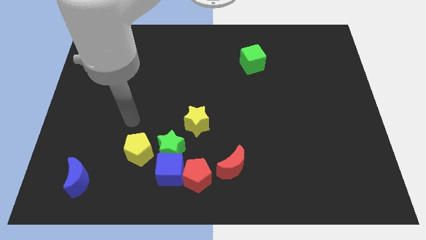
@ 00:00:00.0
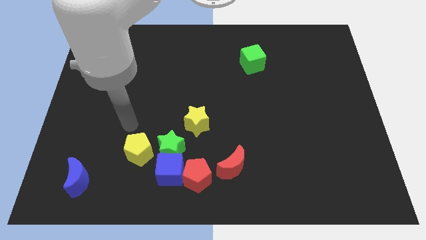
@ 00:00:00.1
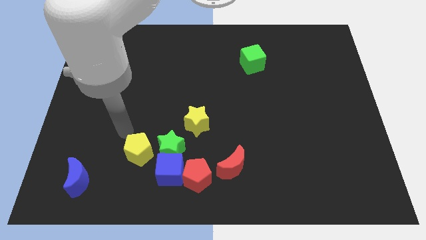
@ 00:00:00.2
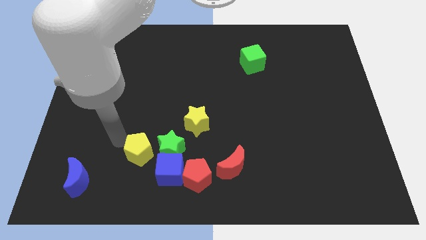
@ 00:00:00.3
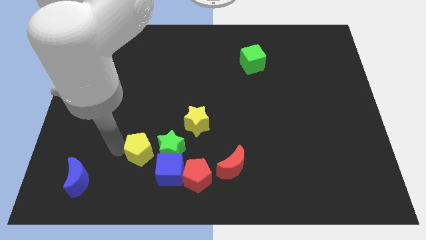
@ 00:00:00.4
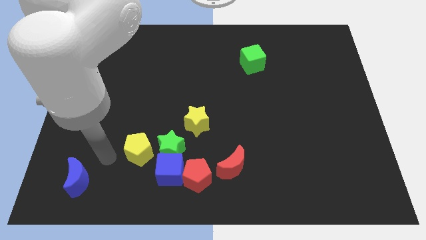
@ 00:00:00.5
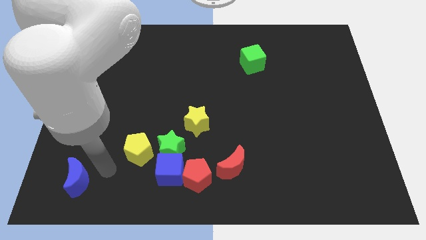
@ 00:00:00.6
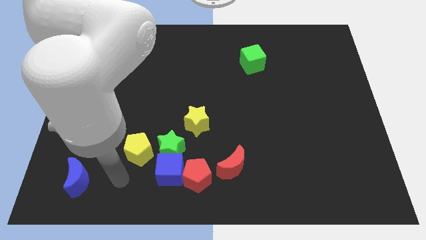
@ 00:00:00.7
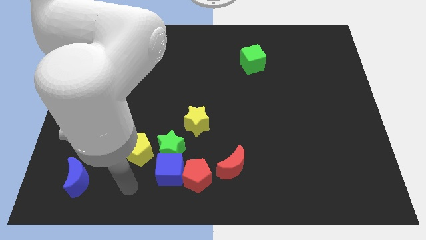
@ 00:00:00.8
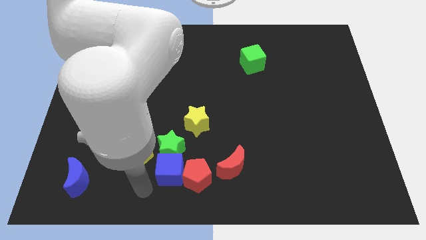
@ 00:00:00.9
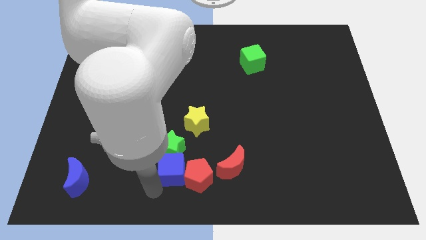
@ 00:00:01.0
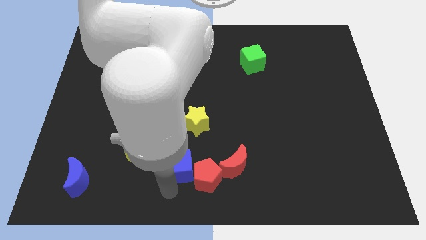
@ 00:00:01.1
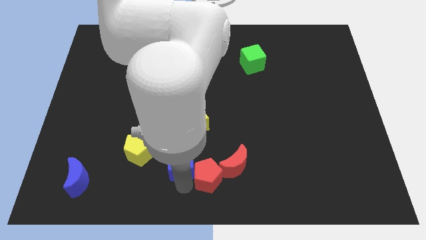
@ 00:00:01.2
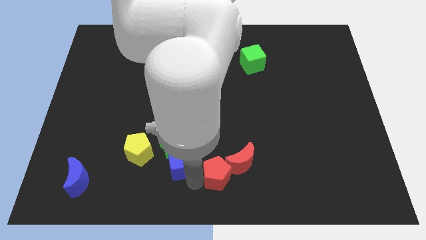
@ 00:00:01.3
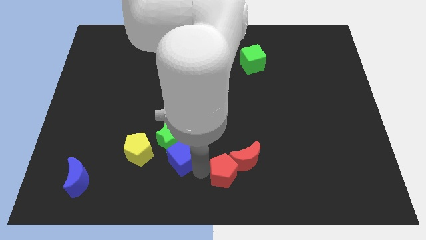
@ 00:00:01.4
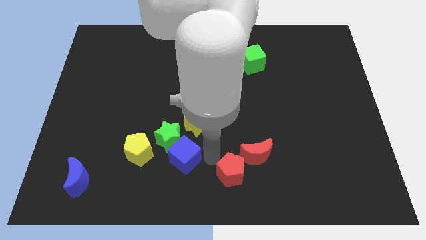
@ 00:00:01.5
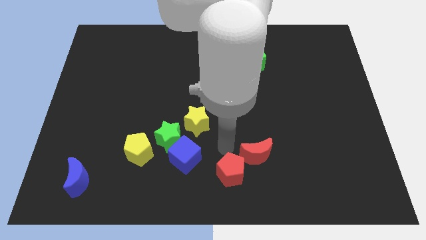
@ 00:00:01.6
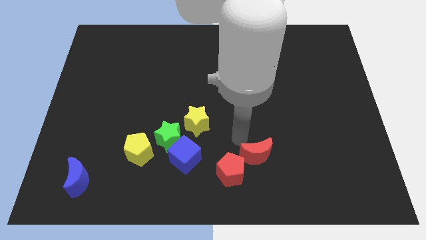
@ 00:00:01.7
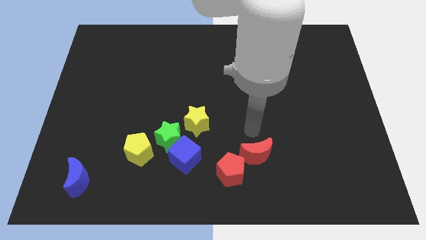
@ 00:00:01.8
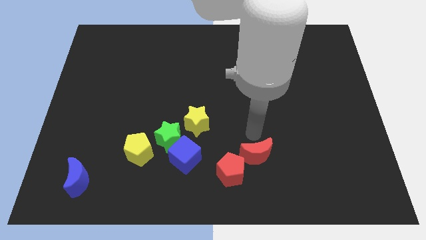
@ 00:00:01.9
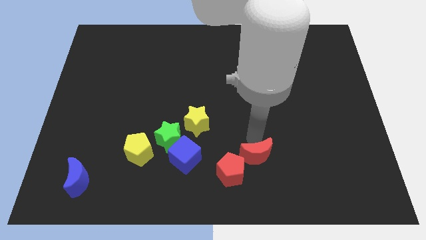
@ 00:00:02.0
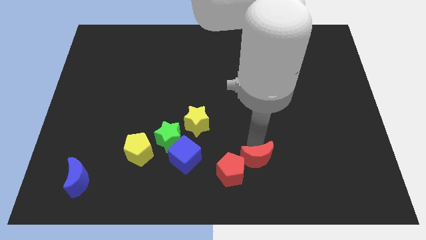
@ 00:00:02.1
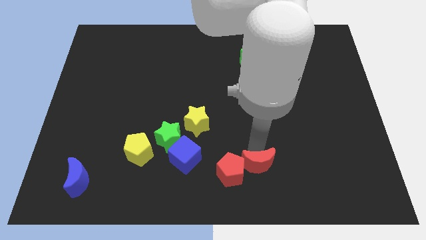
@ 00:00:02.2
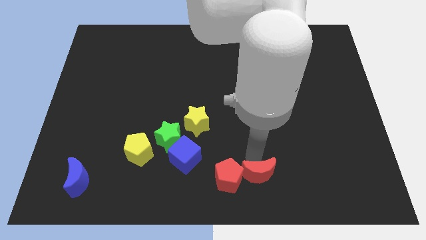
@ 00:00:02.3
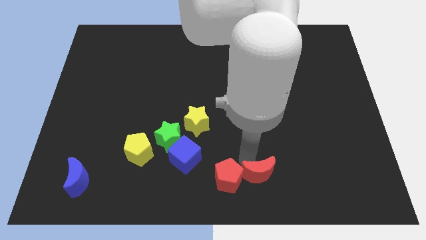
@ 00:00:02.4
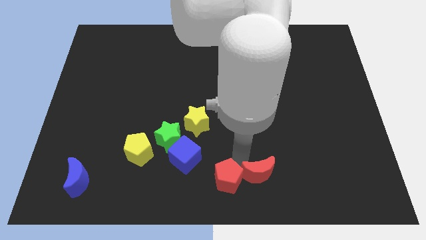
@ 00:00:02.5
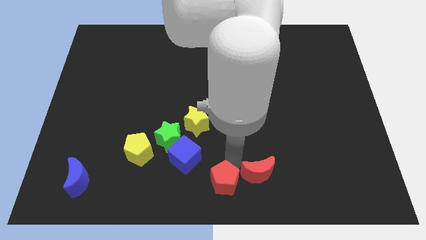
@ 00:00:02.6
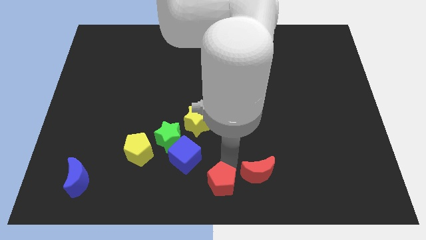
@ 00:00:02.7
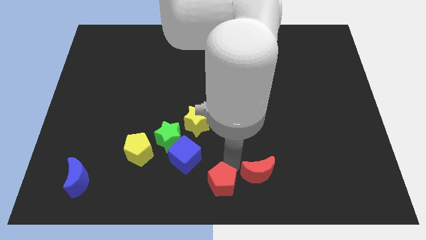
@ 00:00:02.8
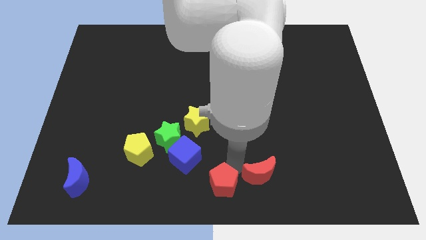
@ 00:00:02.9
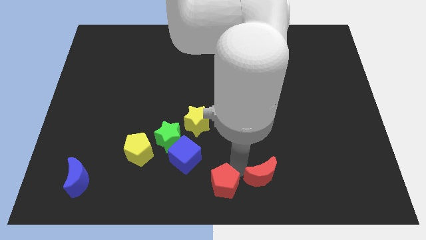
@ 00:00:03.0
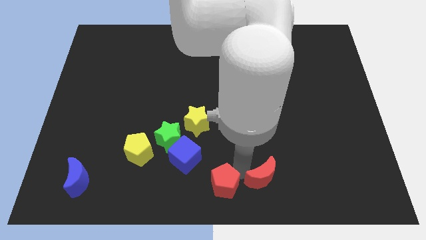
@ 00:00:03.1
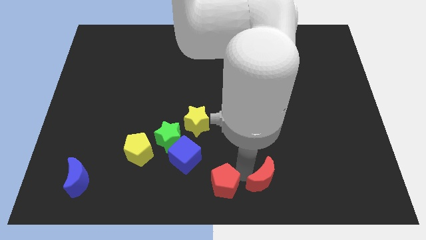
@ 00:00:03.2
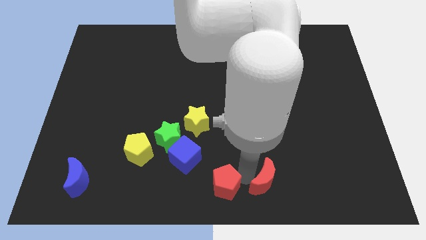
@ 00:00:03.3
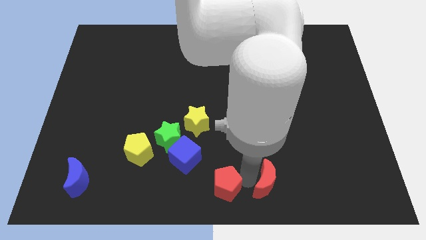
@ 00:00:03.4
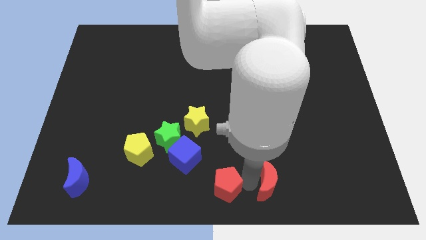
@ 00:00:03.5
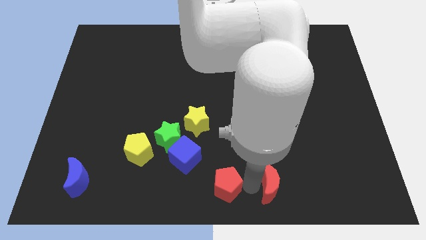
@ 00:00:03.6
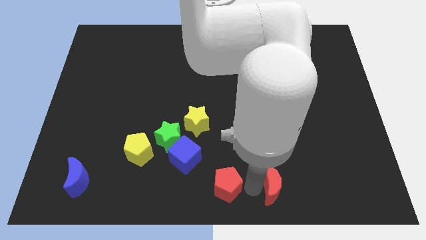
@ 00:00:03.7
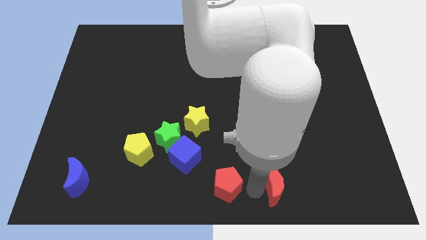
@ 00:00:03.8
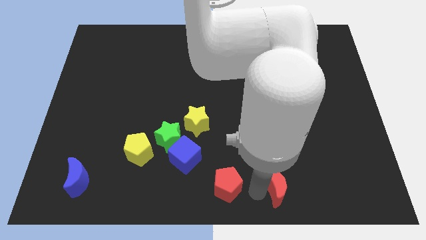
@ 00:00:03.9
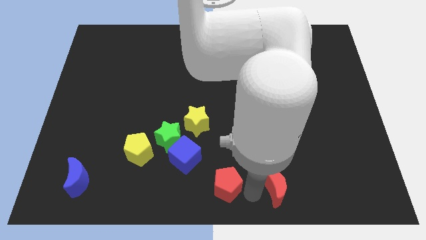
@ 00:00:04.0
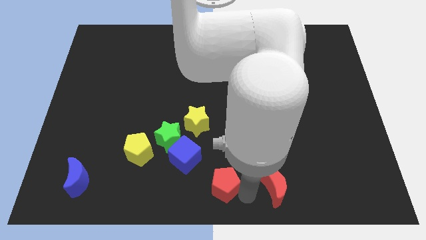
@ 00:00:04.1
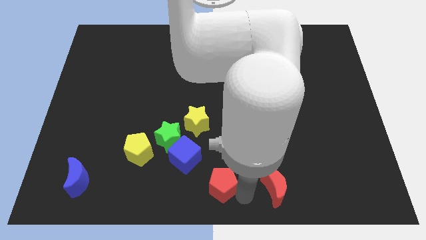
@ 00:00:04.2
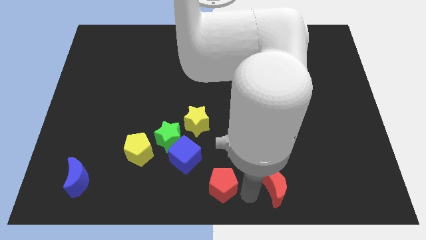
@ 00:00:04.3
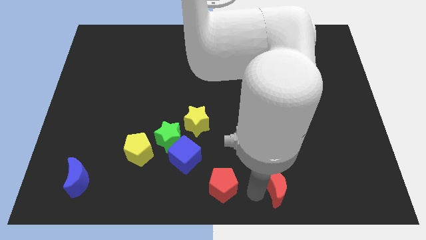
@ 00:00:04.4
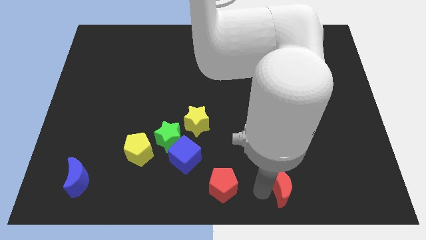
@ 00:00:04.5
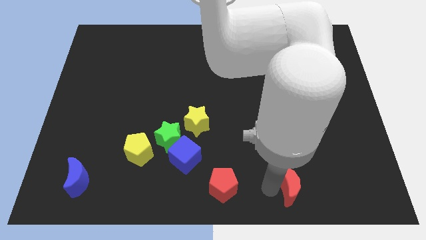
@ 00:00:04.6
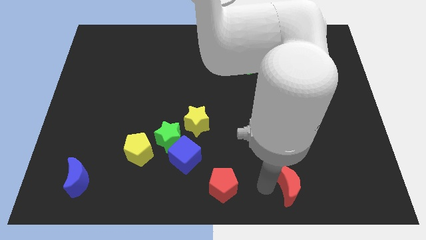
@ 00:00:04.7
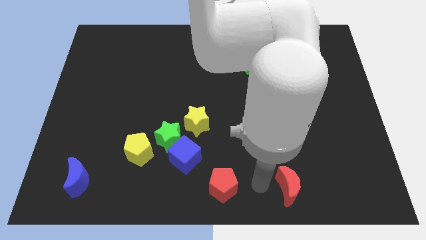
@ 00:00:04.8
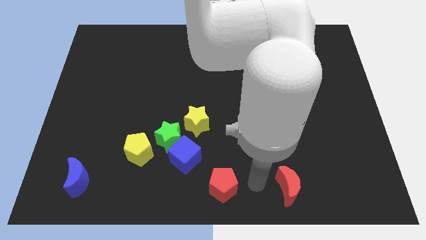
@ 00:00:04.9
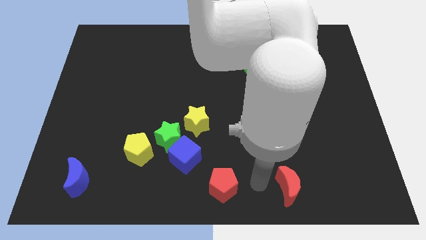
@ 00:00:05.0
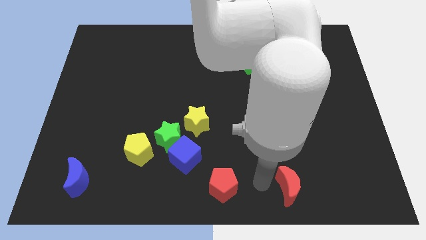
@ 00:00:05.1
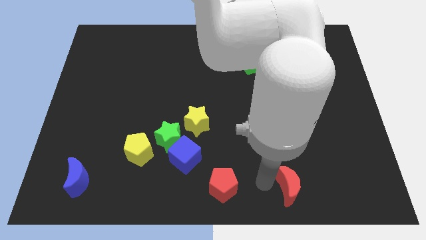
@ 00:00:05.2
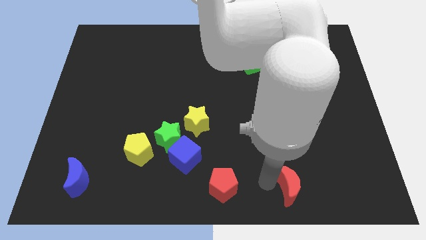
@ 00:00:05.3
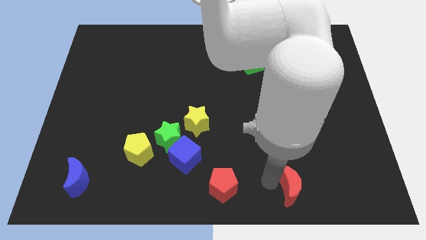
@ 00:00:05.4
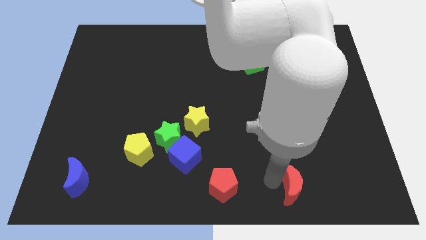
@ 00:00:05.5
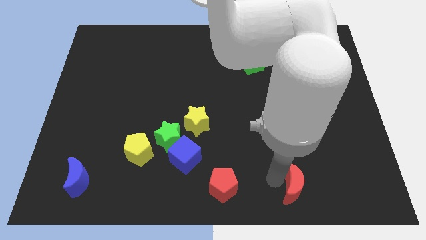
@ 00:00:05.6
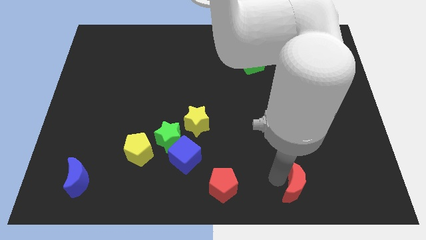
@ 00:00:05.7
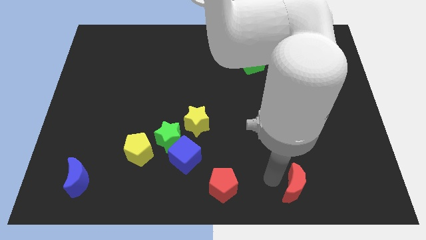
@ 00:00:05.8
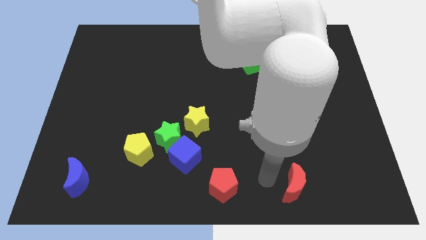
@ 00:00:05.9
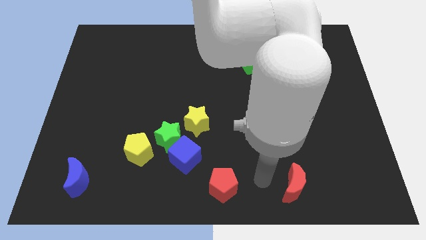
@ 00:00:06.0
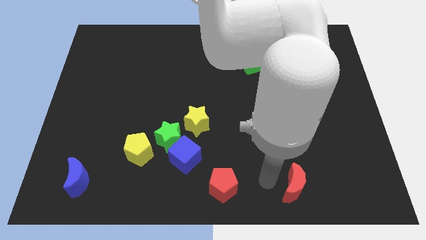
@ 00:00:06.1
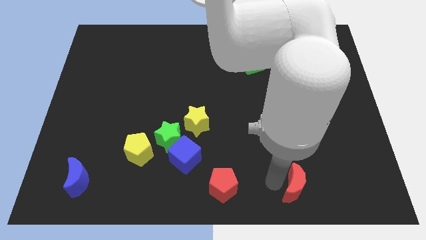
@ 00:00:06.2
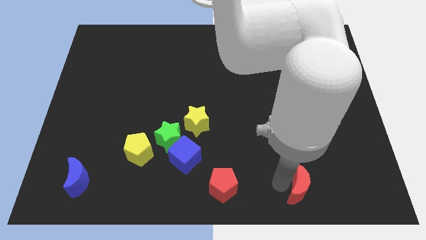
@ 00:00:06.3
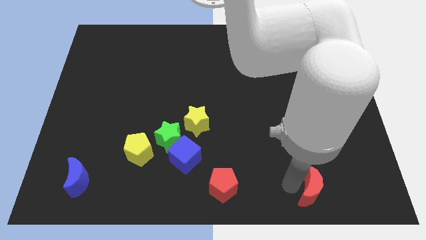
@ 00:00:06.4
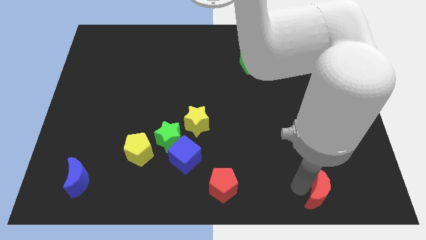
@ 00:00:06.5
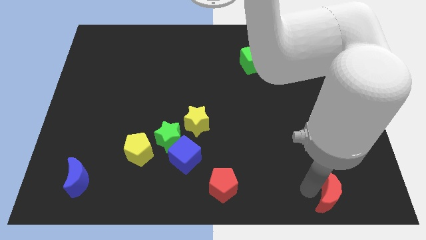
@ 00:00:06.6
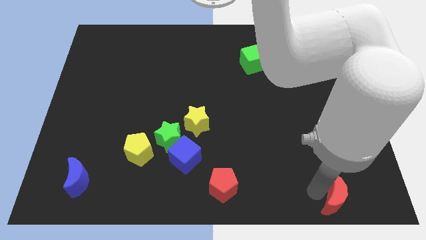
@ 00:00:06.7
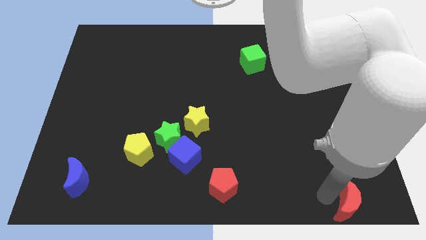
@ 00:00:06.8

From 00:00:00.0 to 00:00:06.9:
move the red moon to the lower right corner
